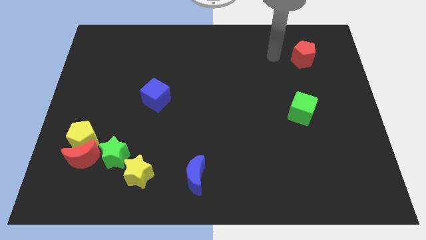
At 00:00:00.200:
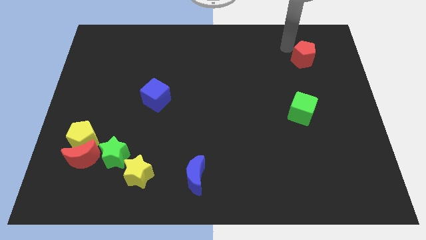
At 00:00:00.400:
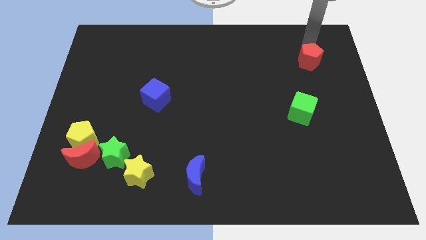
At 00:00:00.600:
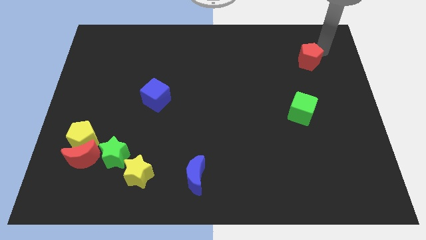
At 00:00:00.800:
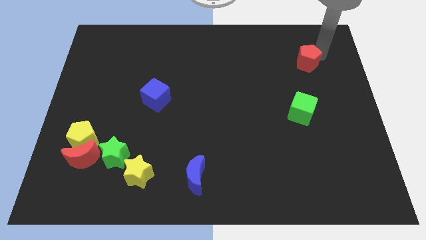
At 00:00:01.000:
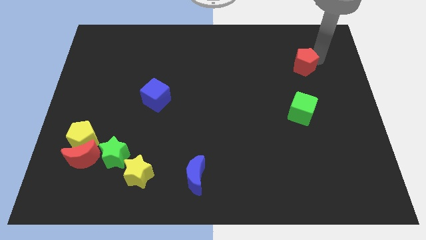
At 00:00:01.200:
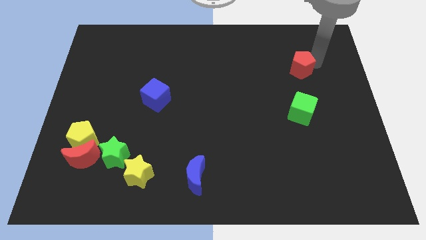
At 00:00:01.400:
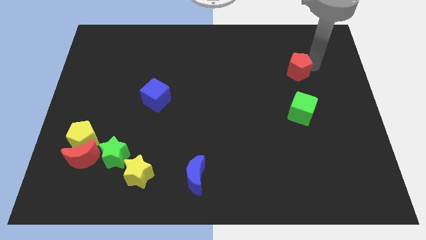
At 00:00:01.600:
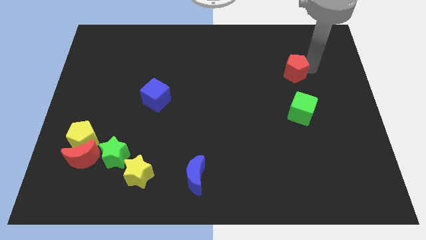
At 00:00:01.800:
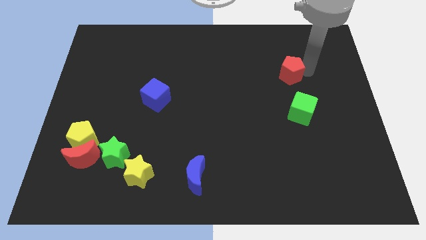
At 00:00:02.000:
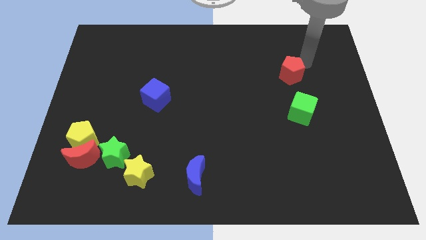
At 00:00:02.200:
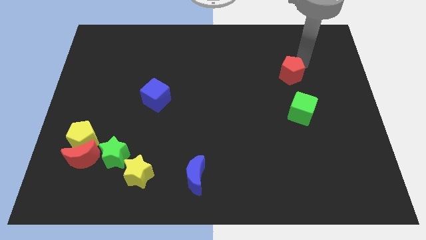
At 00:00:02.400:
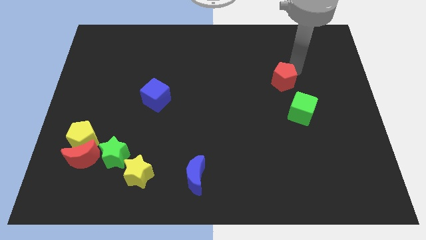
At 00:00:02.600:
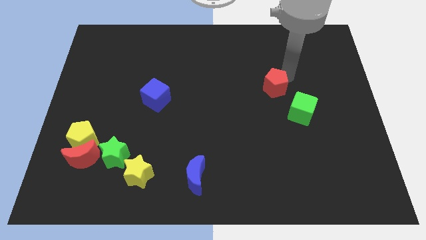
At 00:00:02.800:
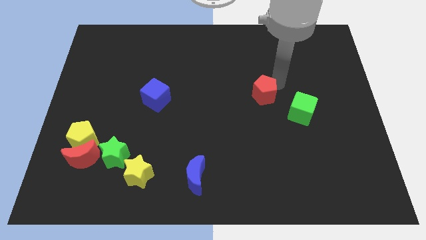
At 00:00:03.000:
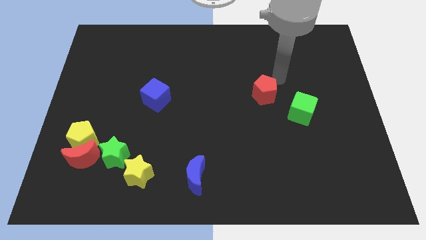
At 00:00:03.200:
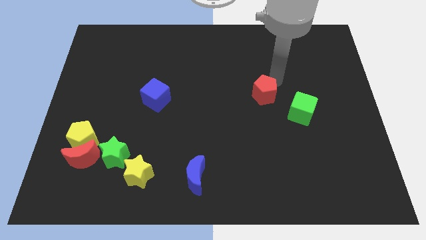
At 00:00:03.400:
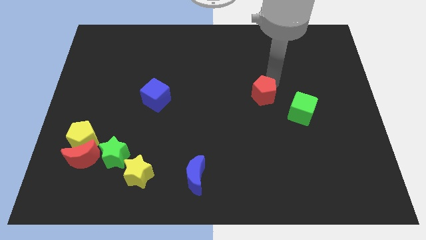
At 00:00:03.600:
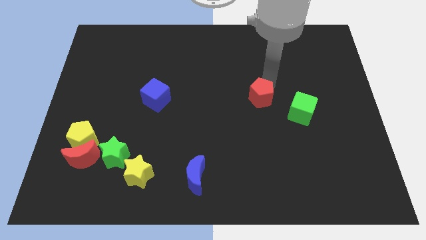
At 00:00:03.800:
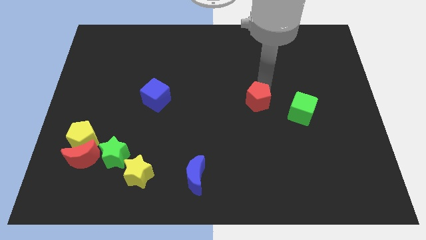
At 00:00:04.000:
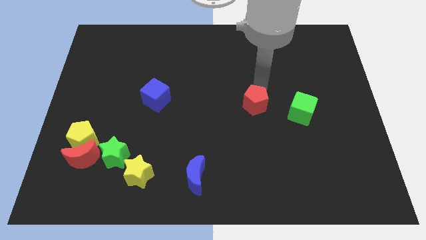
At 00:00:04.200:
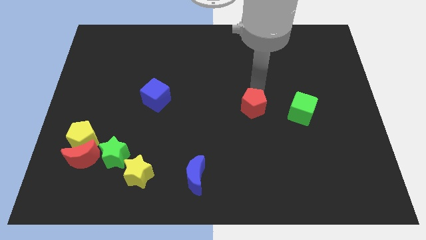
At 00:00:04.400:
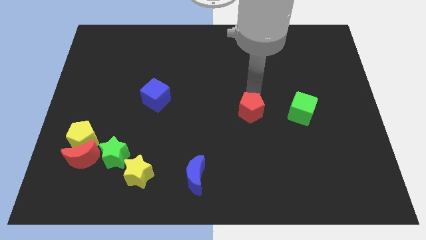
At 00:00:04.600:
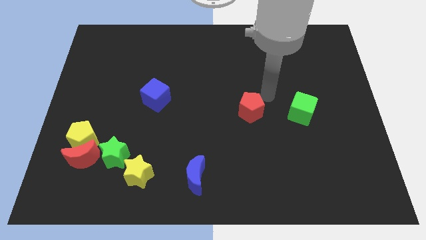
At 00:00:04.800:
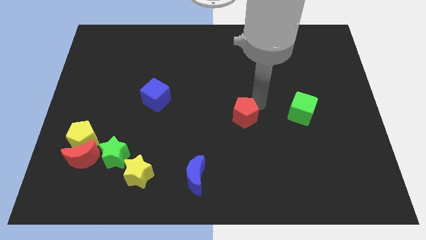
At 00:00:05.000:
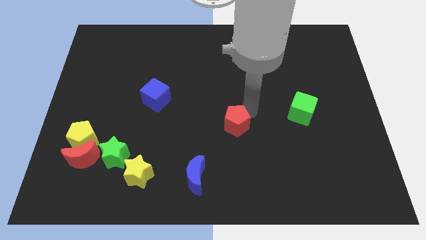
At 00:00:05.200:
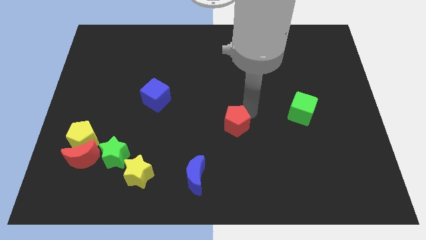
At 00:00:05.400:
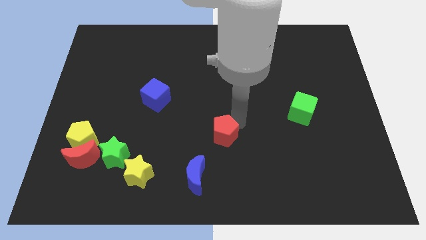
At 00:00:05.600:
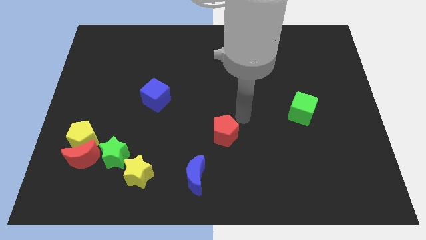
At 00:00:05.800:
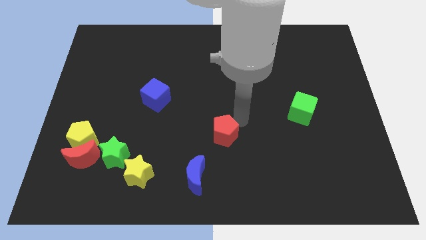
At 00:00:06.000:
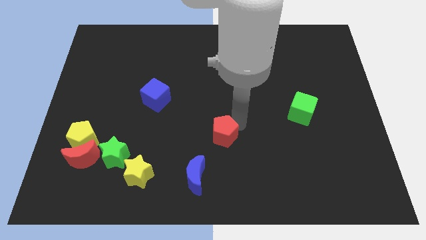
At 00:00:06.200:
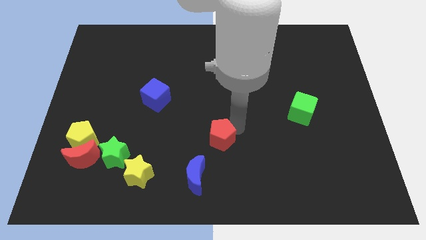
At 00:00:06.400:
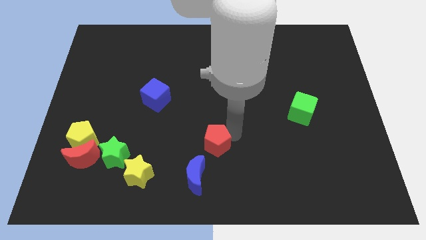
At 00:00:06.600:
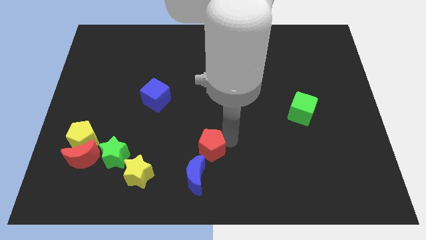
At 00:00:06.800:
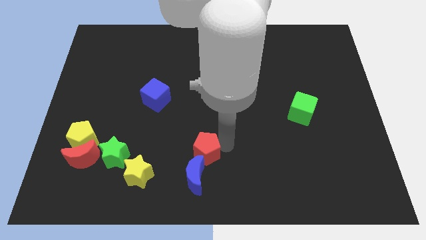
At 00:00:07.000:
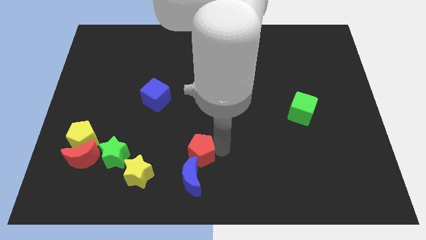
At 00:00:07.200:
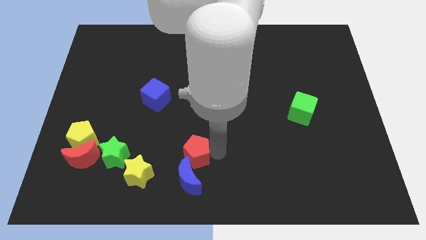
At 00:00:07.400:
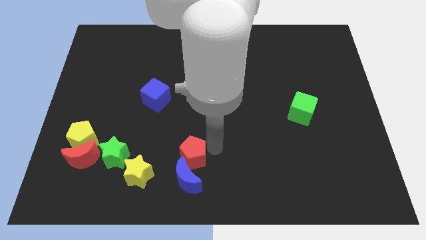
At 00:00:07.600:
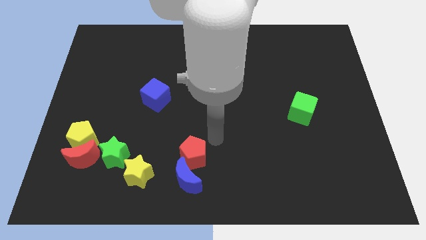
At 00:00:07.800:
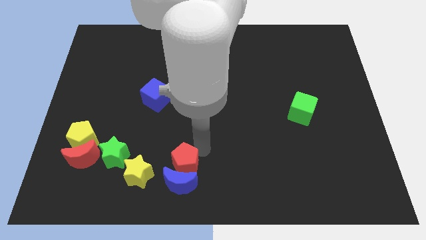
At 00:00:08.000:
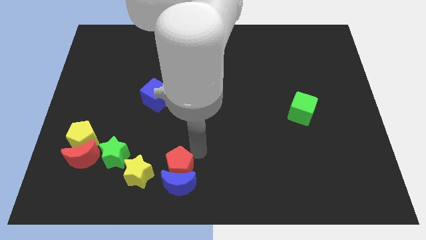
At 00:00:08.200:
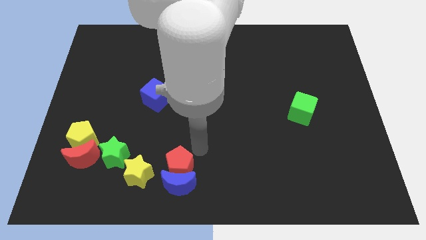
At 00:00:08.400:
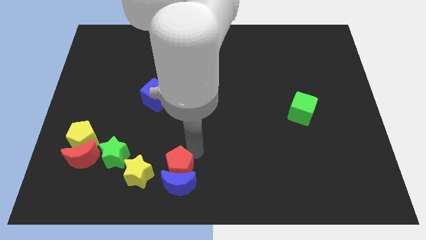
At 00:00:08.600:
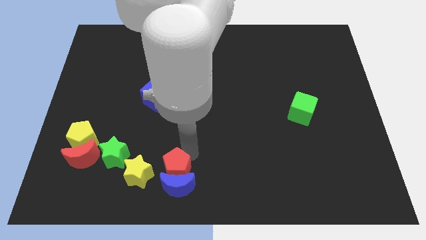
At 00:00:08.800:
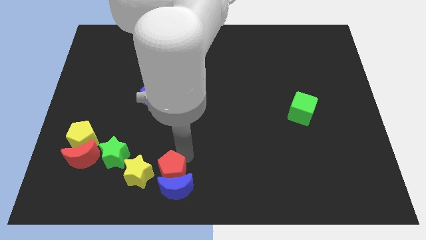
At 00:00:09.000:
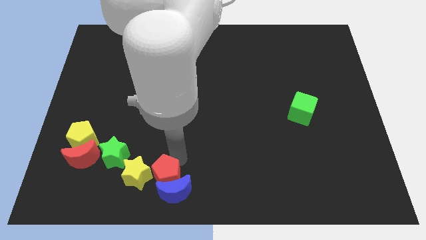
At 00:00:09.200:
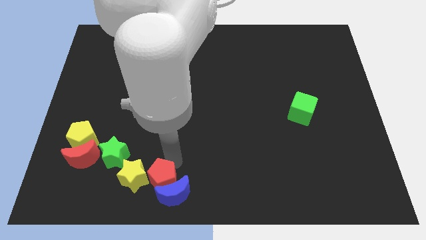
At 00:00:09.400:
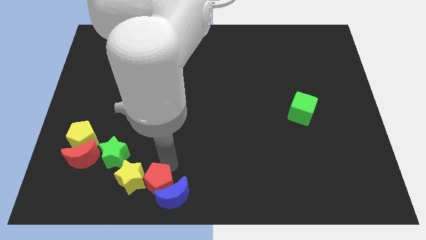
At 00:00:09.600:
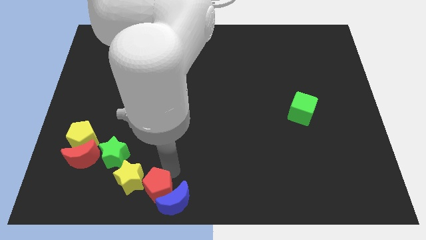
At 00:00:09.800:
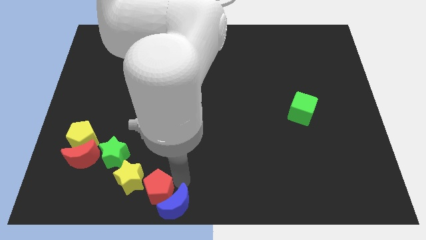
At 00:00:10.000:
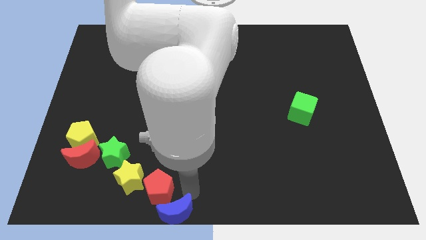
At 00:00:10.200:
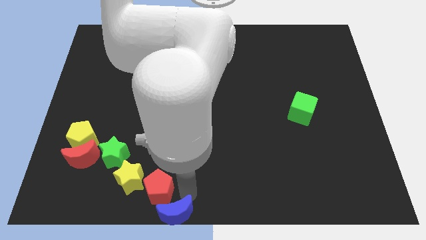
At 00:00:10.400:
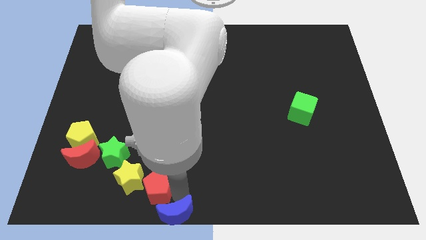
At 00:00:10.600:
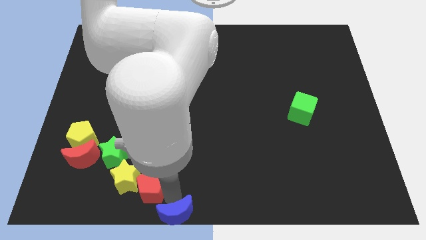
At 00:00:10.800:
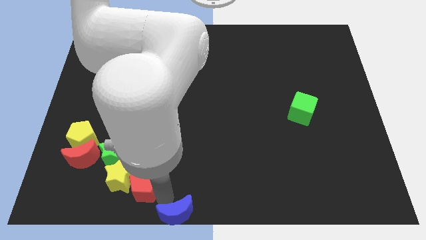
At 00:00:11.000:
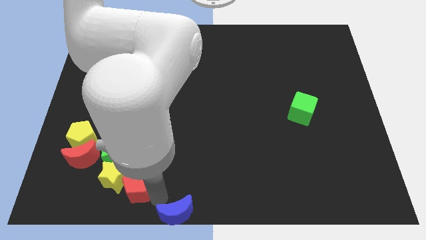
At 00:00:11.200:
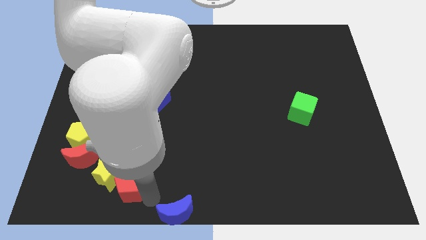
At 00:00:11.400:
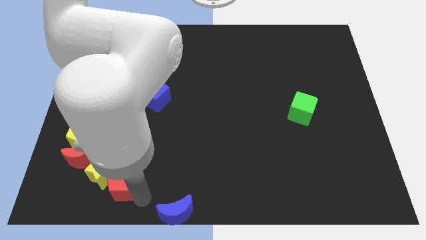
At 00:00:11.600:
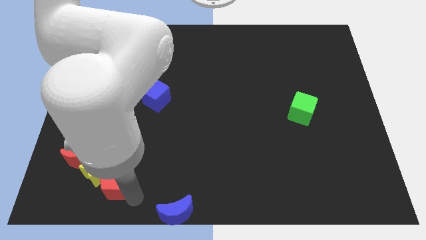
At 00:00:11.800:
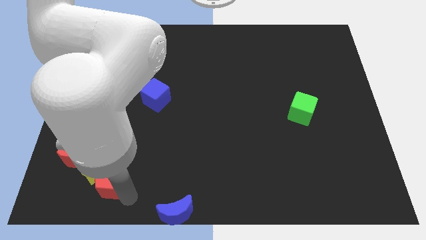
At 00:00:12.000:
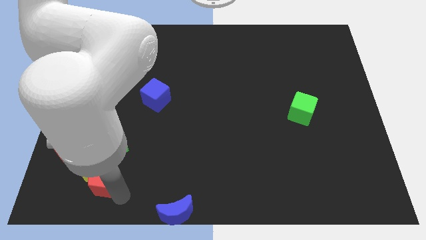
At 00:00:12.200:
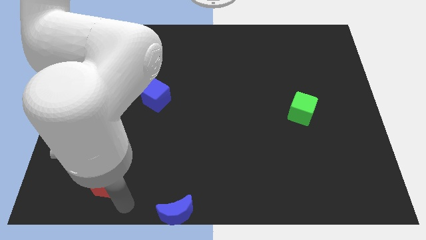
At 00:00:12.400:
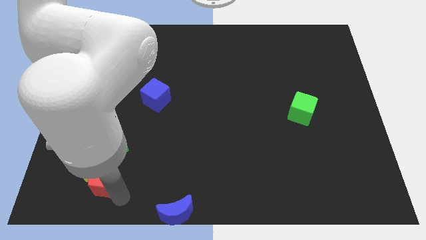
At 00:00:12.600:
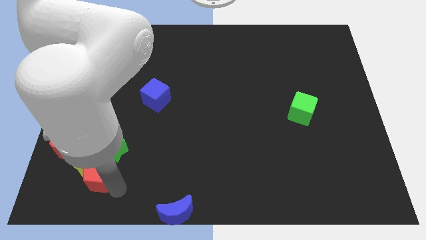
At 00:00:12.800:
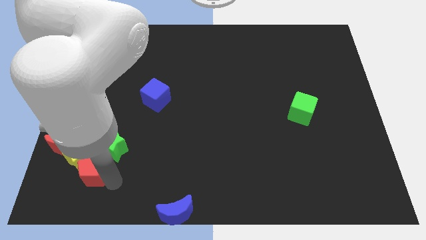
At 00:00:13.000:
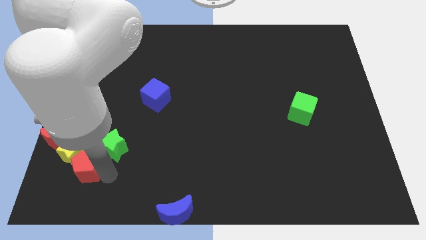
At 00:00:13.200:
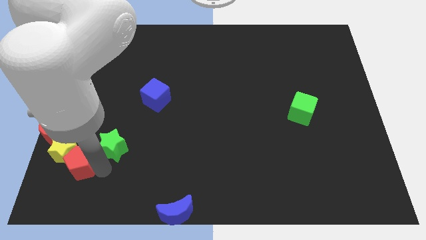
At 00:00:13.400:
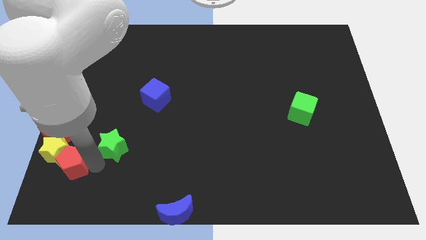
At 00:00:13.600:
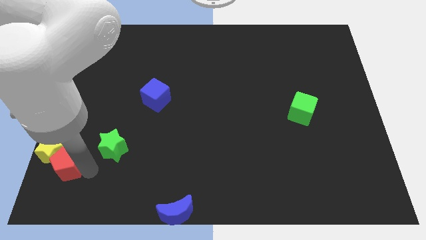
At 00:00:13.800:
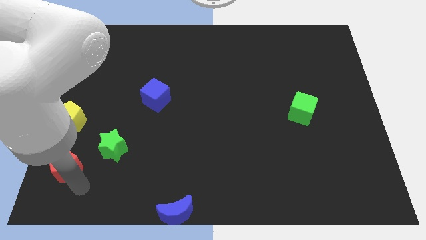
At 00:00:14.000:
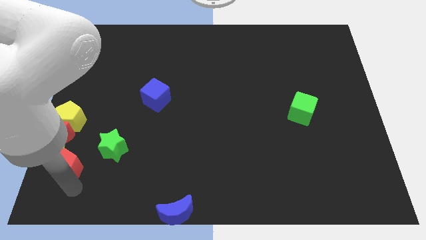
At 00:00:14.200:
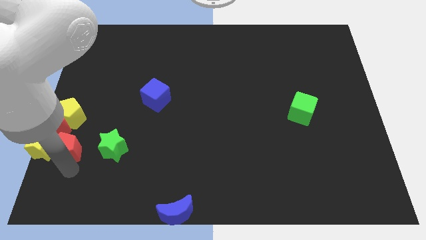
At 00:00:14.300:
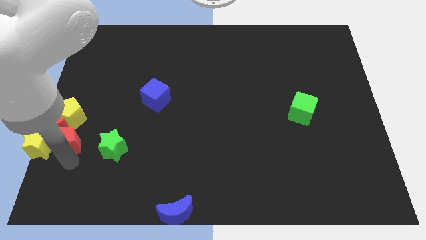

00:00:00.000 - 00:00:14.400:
put the red pentagon towards the red moon
